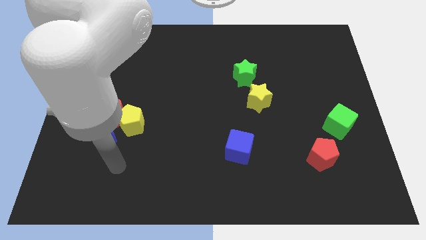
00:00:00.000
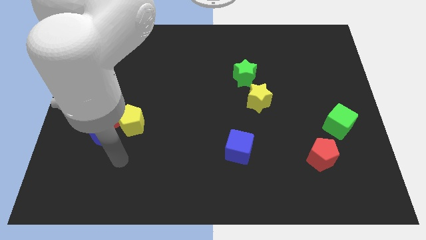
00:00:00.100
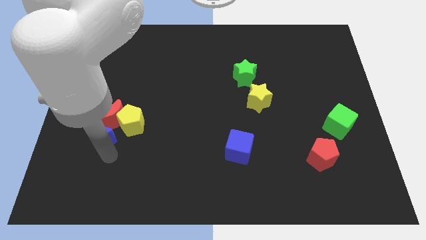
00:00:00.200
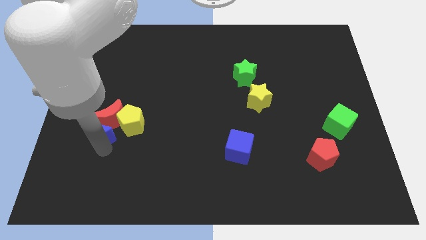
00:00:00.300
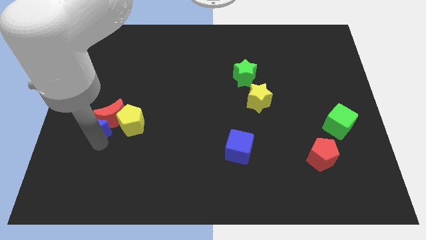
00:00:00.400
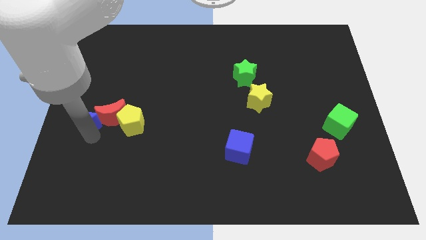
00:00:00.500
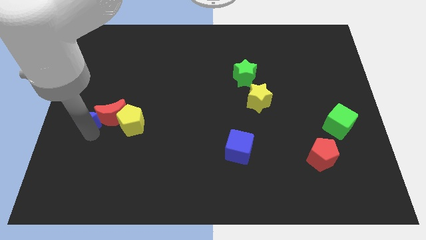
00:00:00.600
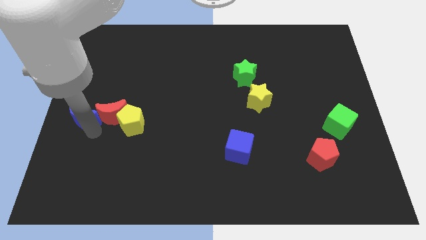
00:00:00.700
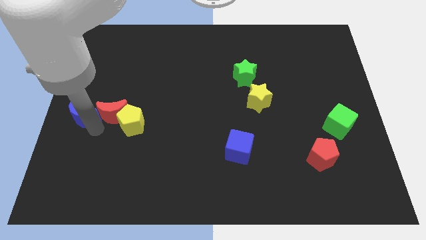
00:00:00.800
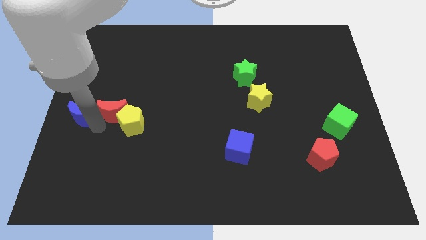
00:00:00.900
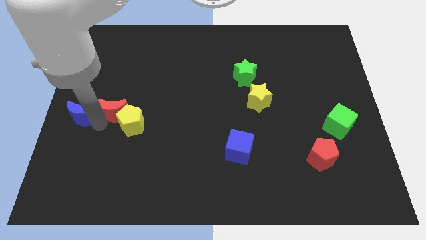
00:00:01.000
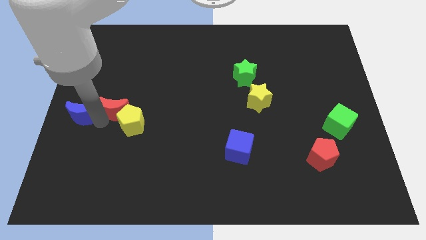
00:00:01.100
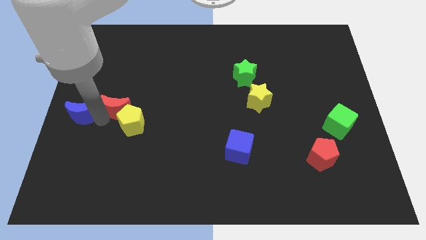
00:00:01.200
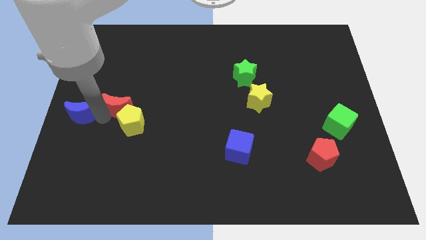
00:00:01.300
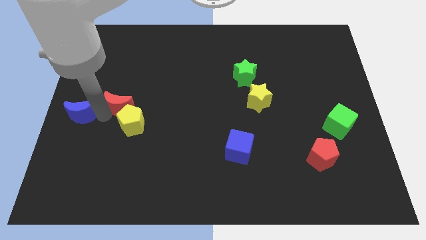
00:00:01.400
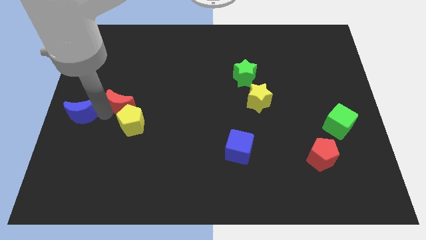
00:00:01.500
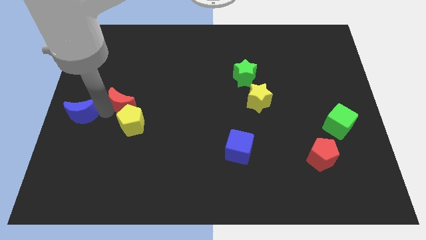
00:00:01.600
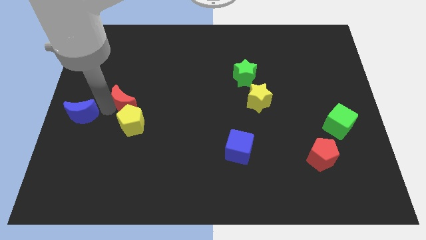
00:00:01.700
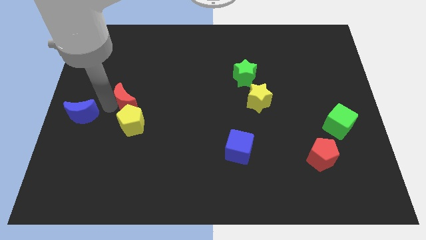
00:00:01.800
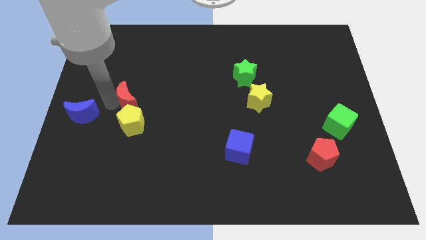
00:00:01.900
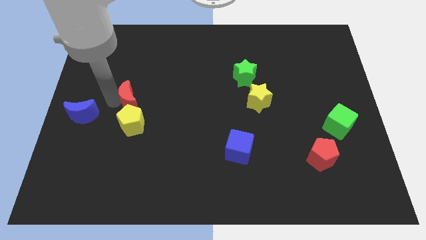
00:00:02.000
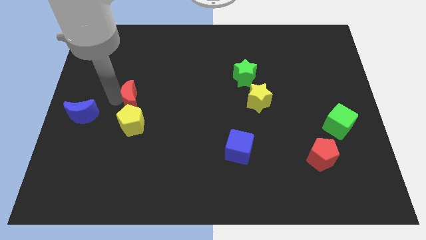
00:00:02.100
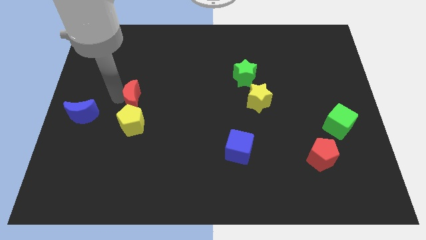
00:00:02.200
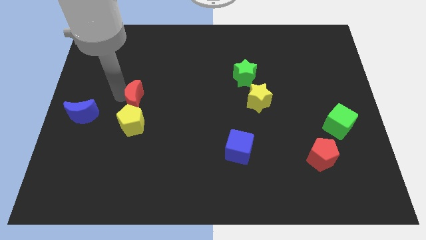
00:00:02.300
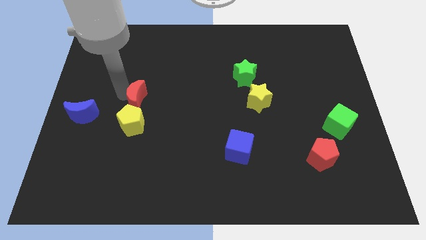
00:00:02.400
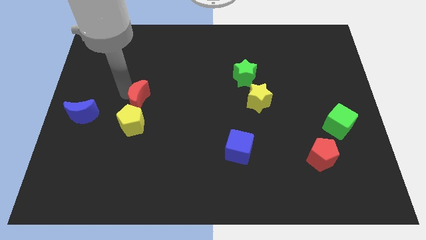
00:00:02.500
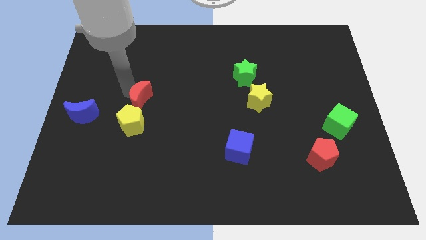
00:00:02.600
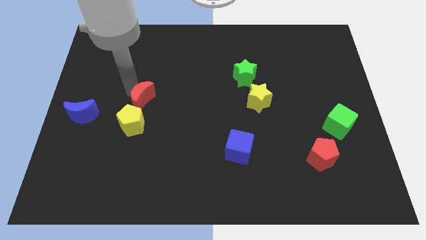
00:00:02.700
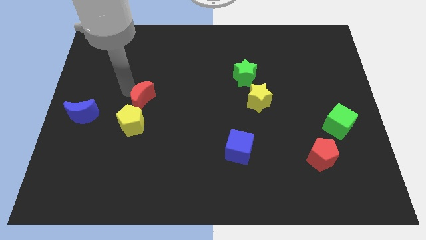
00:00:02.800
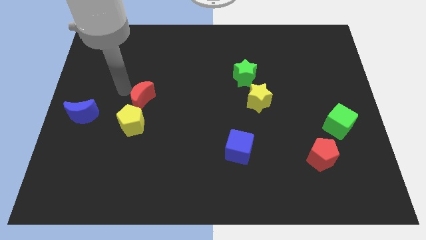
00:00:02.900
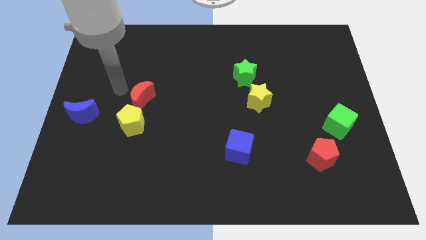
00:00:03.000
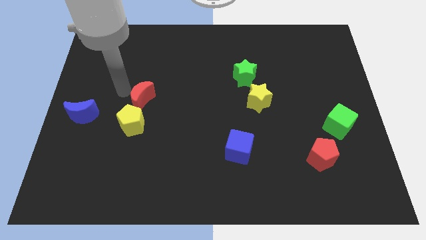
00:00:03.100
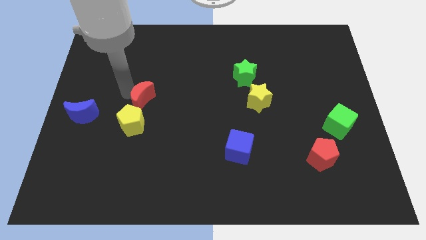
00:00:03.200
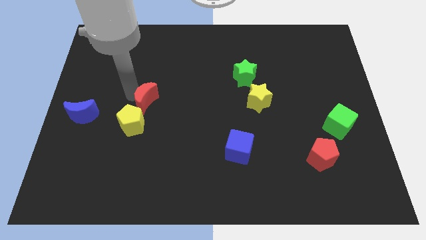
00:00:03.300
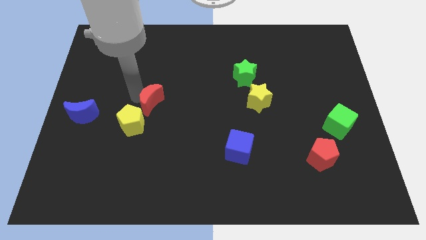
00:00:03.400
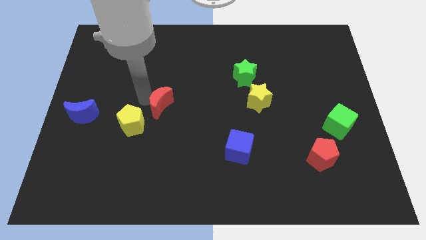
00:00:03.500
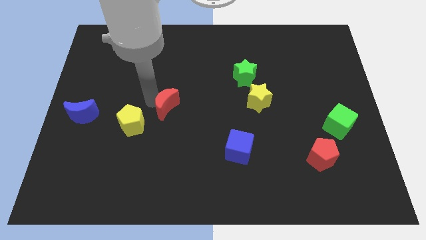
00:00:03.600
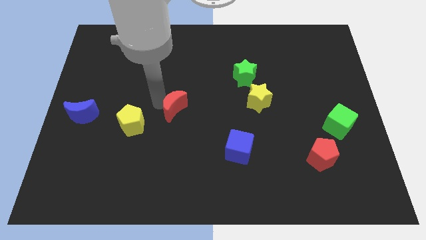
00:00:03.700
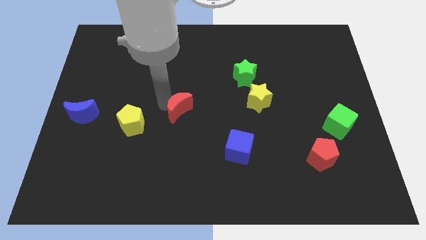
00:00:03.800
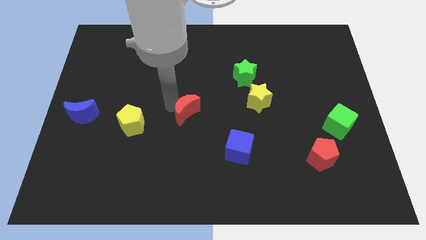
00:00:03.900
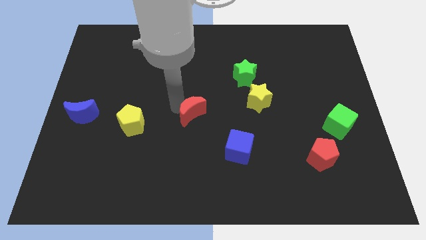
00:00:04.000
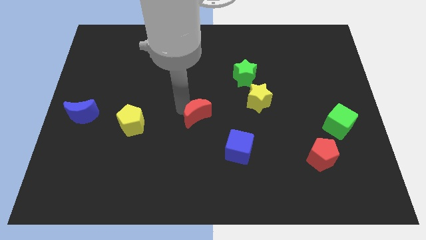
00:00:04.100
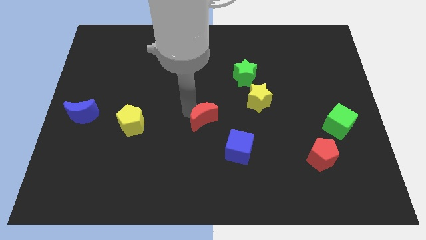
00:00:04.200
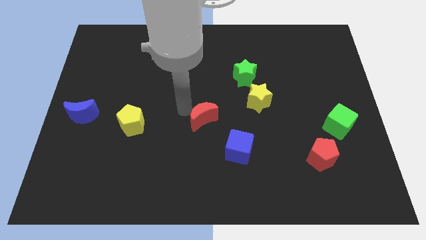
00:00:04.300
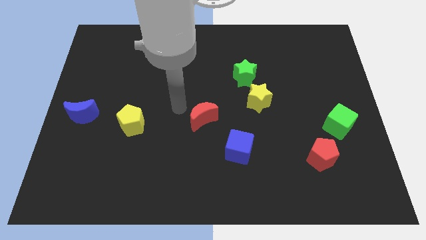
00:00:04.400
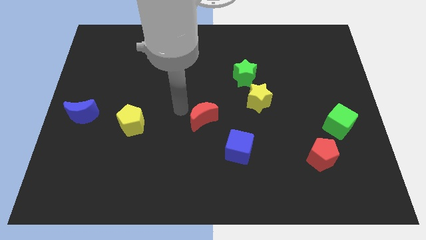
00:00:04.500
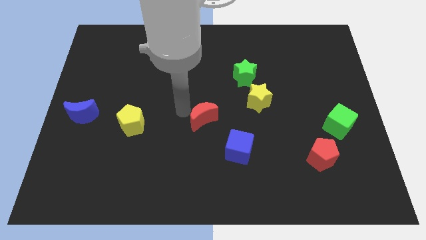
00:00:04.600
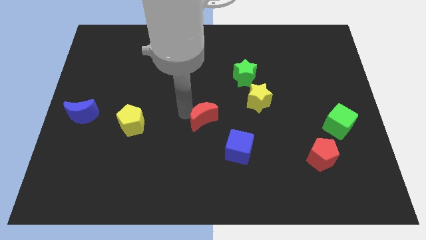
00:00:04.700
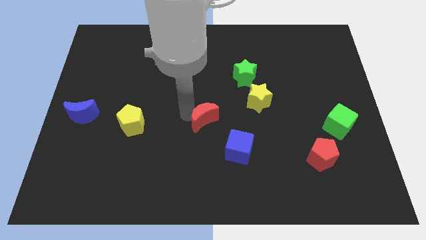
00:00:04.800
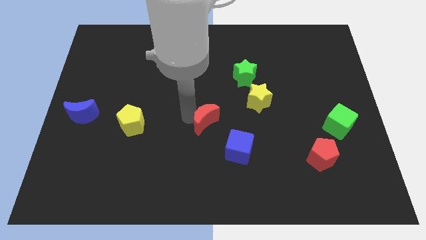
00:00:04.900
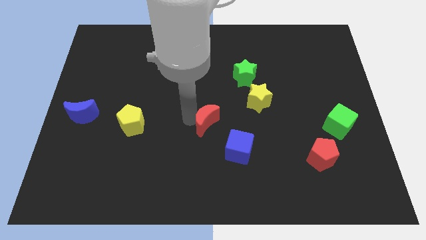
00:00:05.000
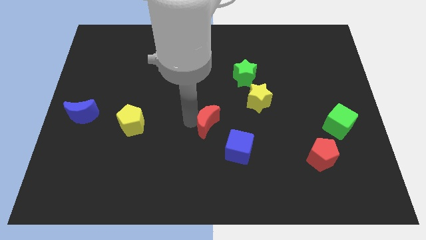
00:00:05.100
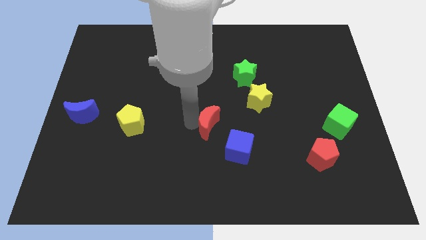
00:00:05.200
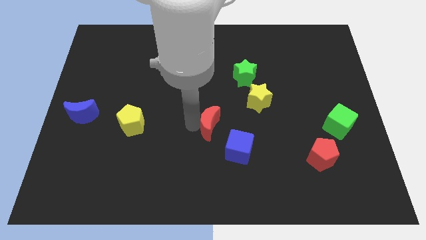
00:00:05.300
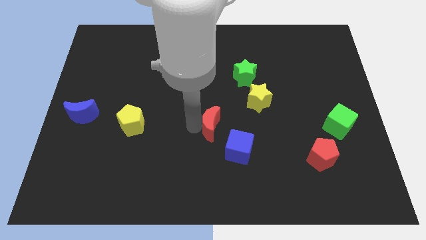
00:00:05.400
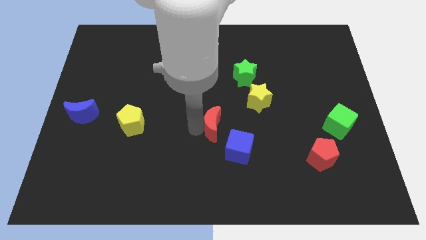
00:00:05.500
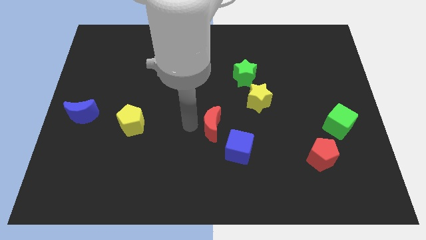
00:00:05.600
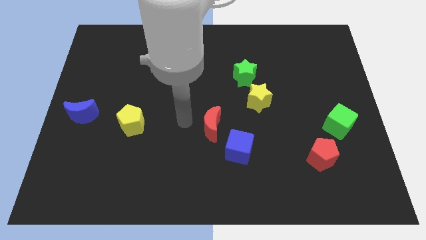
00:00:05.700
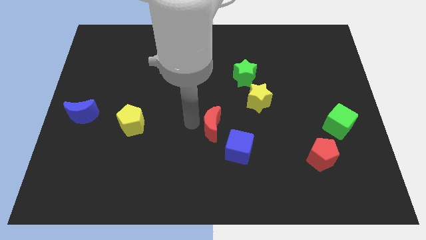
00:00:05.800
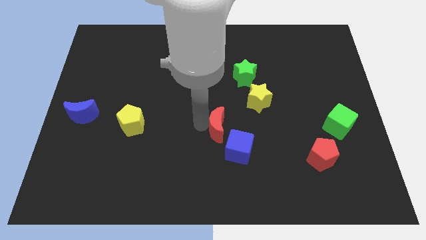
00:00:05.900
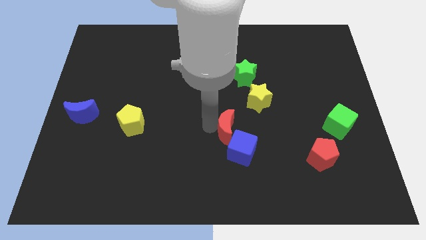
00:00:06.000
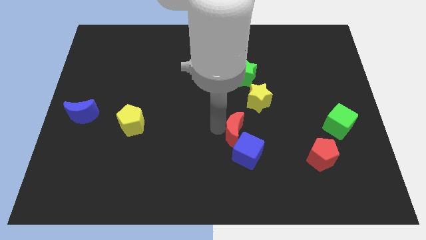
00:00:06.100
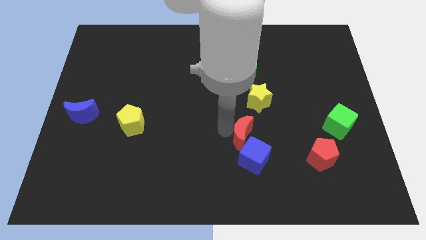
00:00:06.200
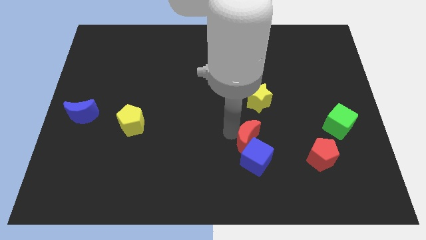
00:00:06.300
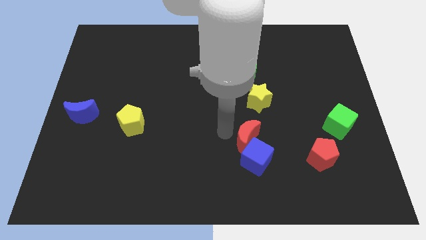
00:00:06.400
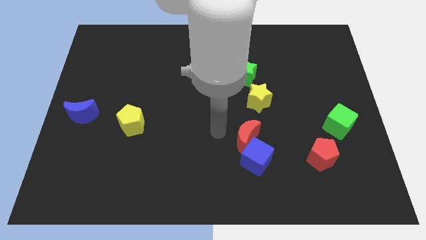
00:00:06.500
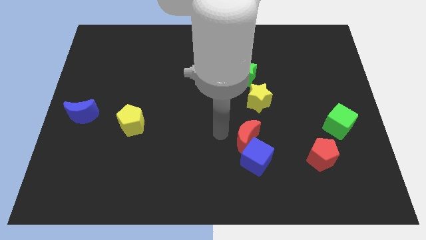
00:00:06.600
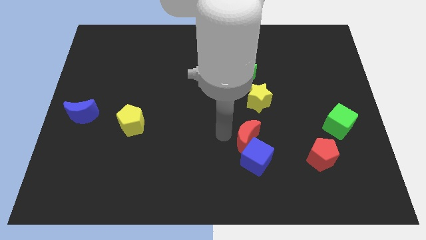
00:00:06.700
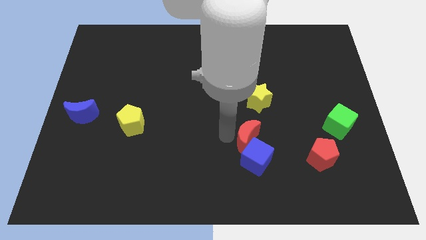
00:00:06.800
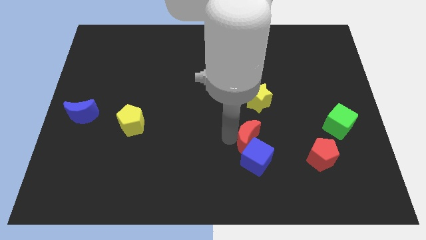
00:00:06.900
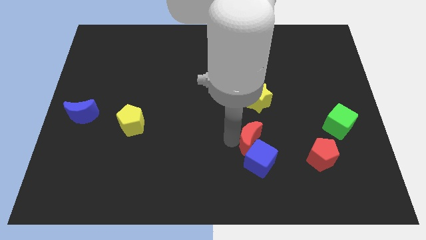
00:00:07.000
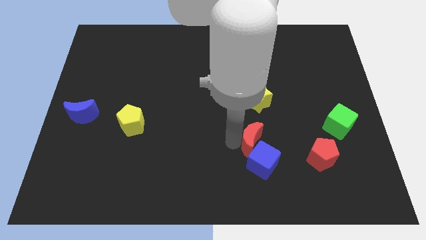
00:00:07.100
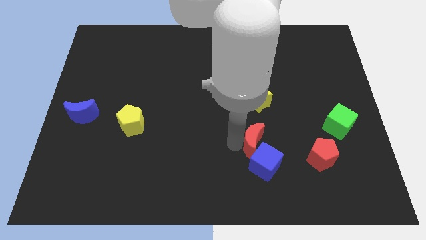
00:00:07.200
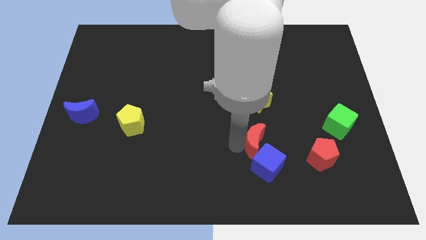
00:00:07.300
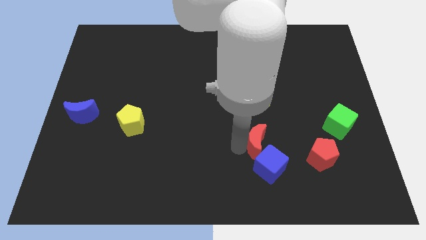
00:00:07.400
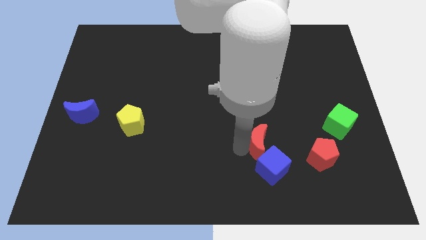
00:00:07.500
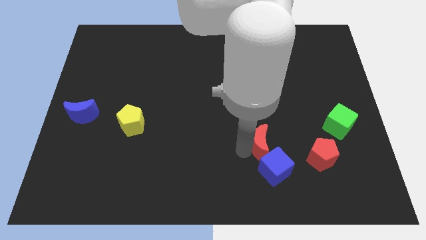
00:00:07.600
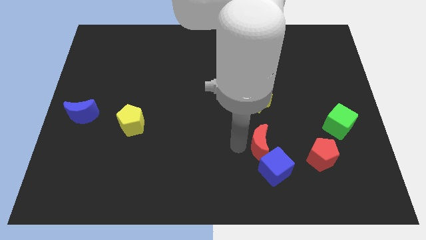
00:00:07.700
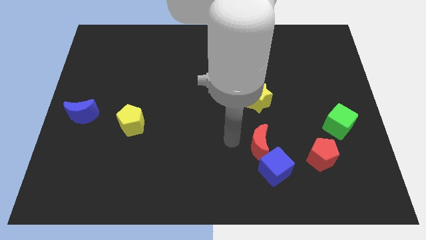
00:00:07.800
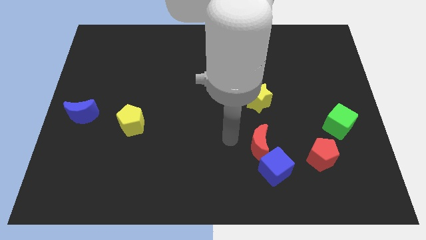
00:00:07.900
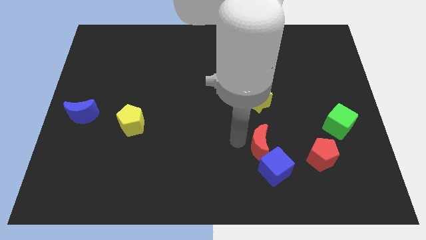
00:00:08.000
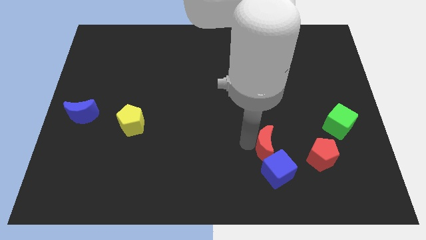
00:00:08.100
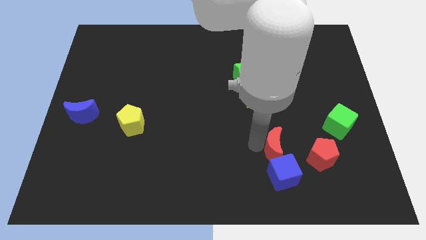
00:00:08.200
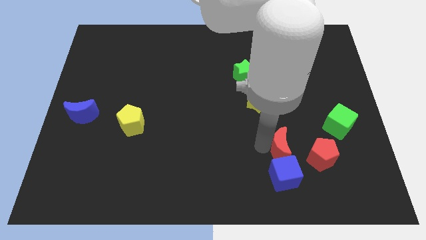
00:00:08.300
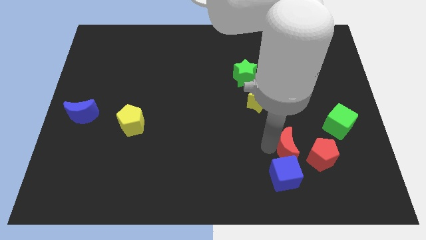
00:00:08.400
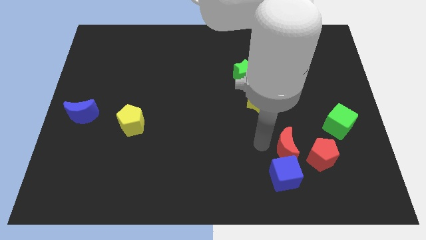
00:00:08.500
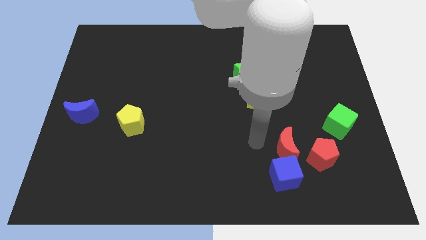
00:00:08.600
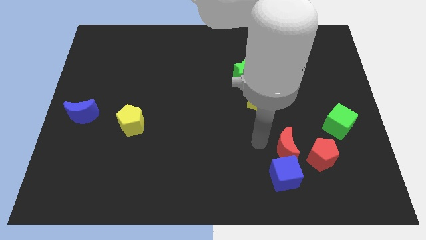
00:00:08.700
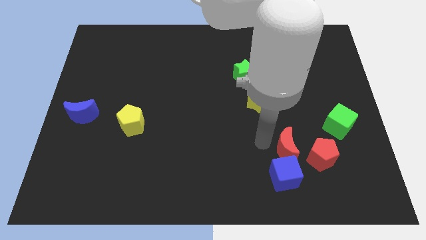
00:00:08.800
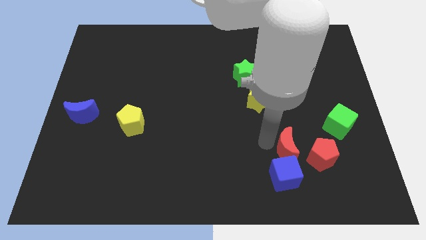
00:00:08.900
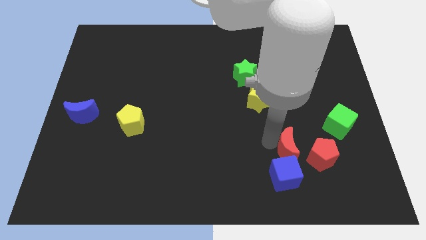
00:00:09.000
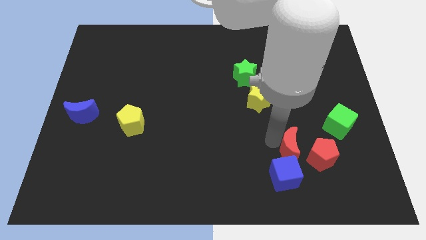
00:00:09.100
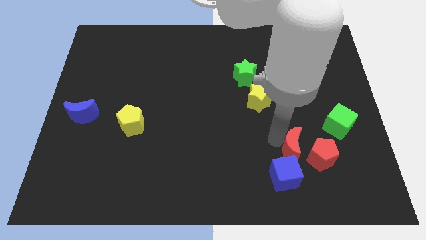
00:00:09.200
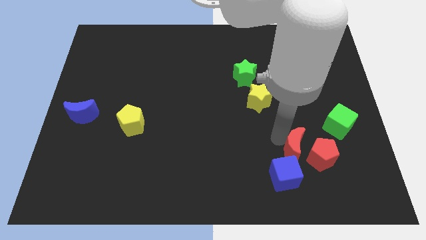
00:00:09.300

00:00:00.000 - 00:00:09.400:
push the red moon to the red pentagon
